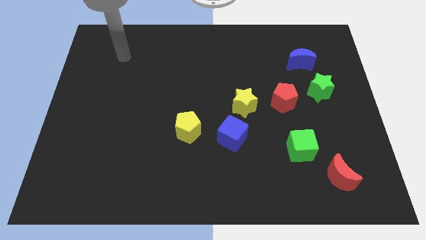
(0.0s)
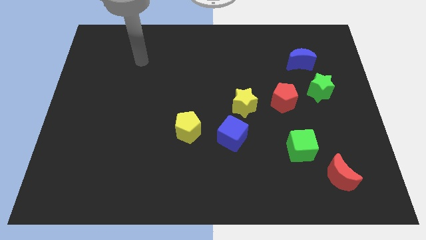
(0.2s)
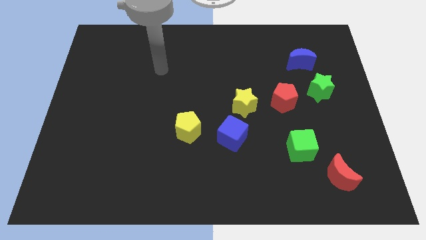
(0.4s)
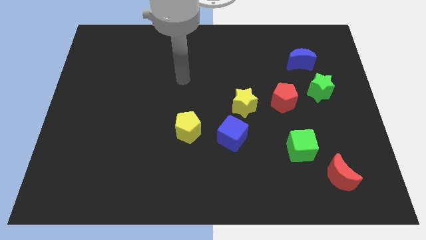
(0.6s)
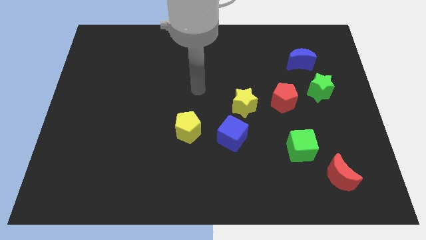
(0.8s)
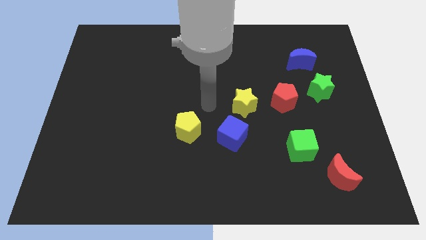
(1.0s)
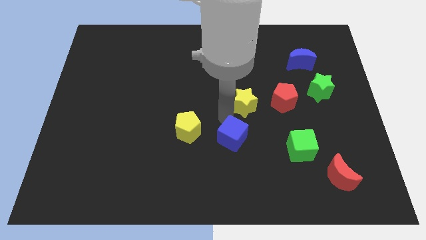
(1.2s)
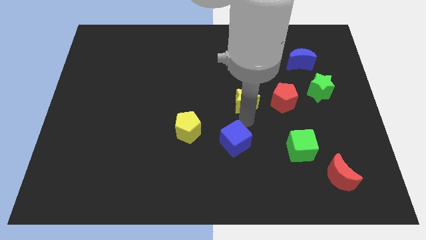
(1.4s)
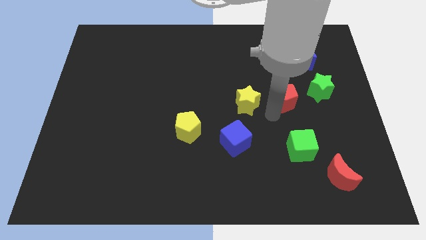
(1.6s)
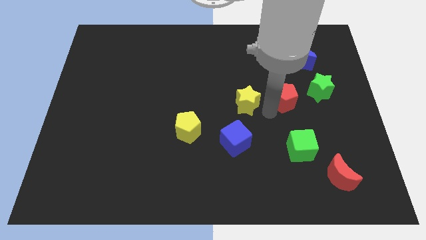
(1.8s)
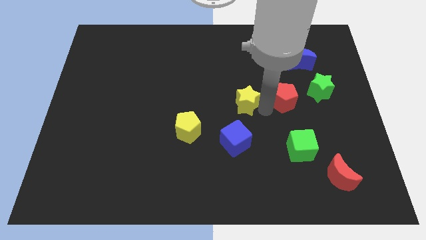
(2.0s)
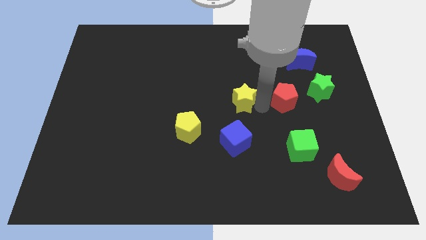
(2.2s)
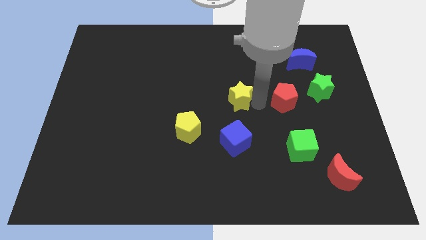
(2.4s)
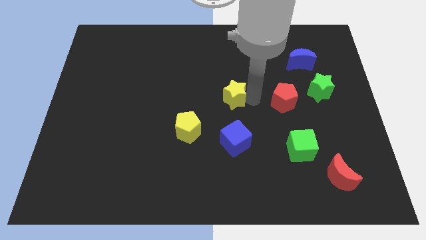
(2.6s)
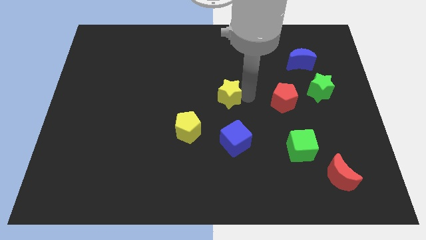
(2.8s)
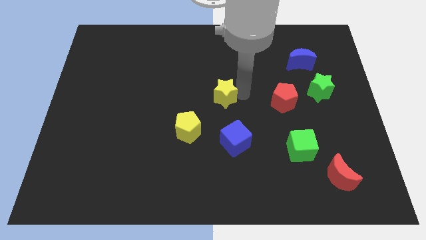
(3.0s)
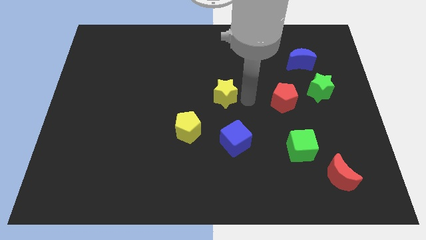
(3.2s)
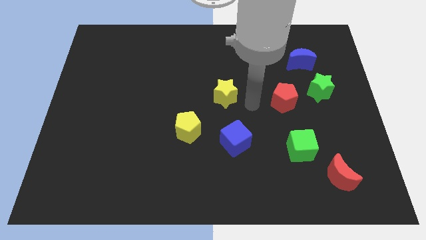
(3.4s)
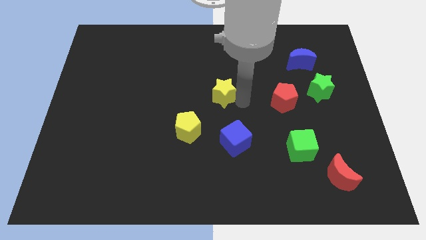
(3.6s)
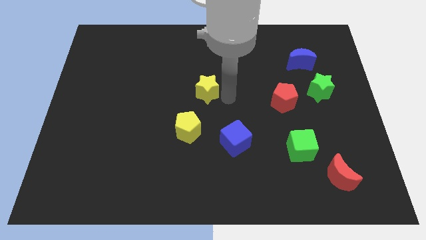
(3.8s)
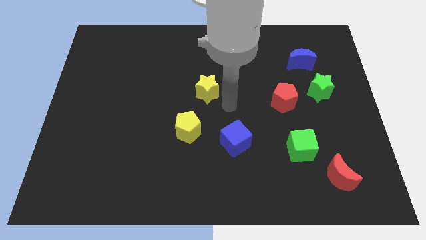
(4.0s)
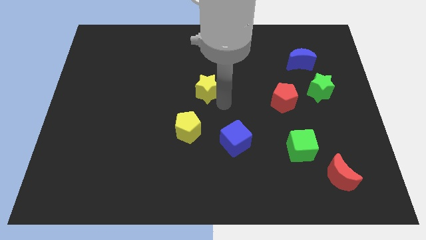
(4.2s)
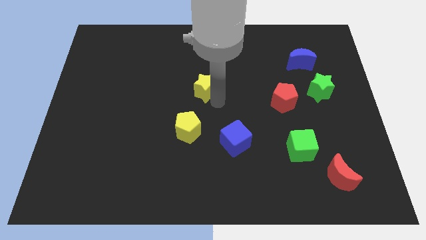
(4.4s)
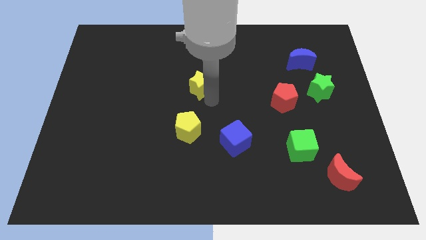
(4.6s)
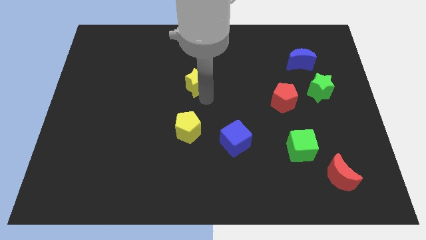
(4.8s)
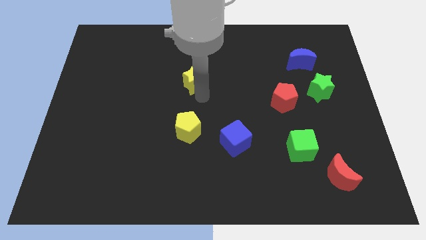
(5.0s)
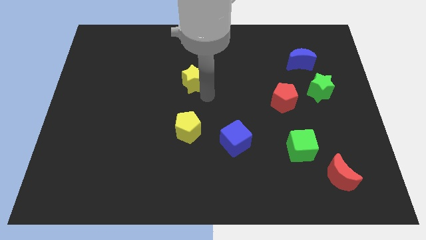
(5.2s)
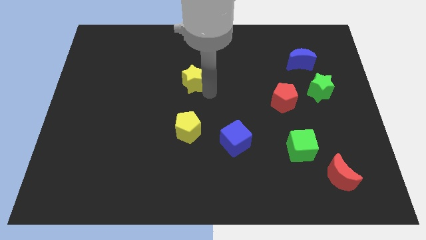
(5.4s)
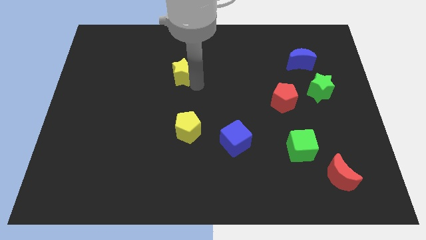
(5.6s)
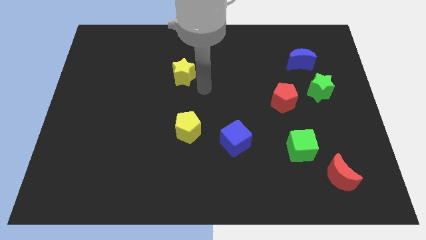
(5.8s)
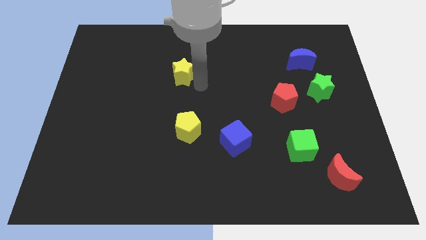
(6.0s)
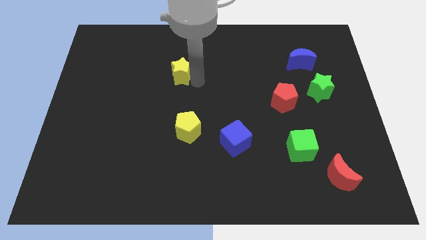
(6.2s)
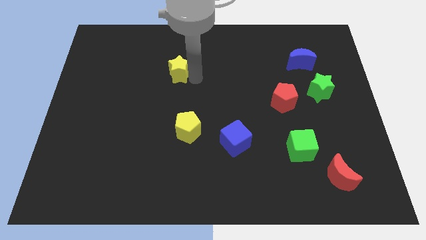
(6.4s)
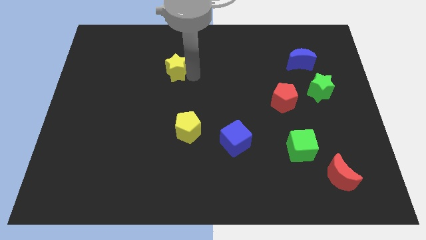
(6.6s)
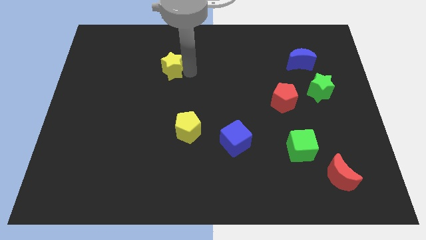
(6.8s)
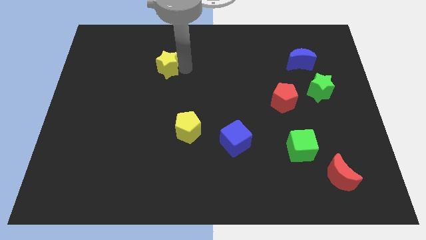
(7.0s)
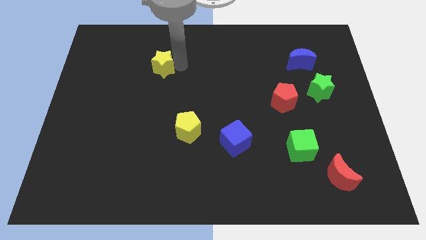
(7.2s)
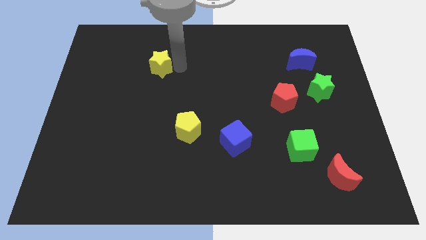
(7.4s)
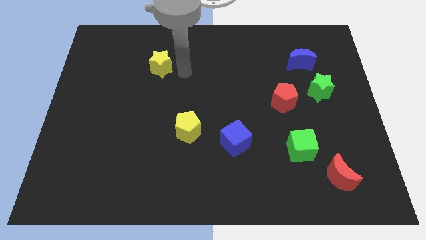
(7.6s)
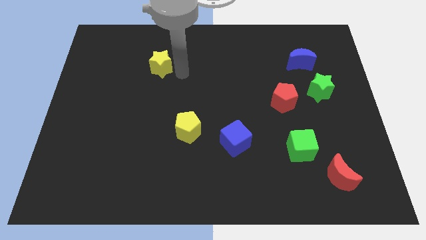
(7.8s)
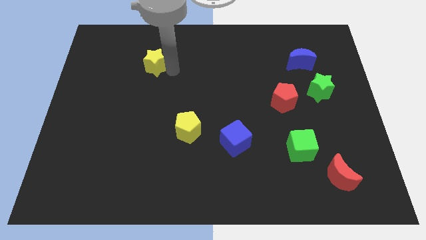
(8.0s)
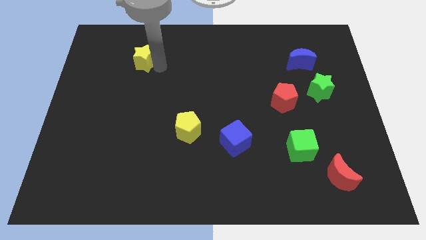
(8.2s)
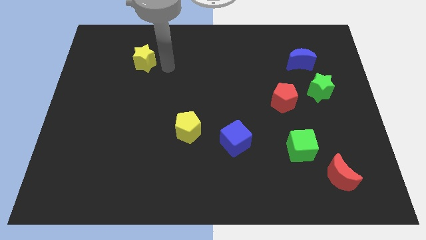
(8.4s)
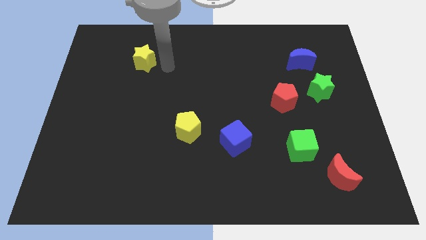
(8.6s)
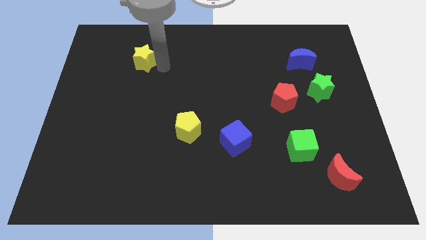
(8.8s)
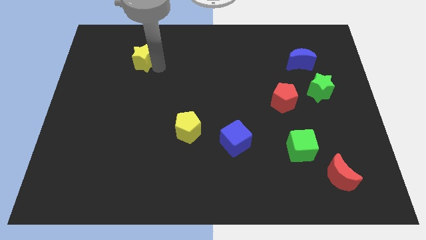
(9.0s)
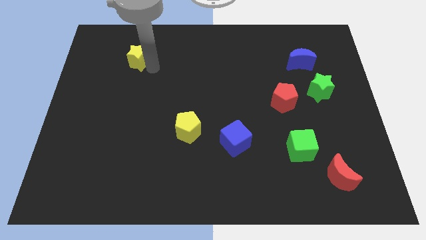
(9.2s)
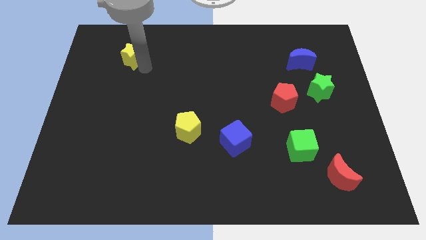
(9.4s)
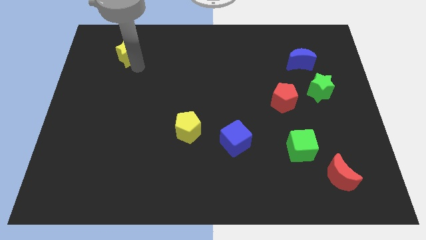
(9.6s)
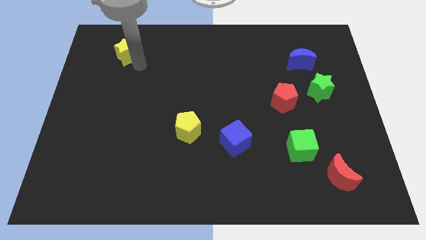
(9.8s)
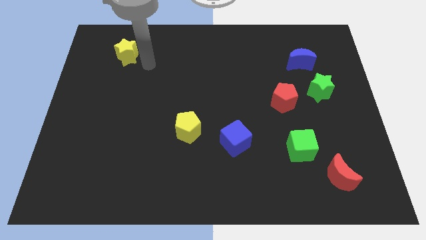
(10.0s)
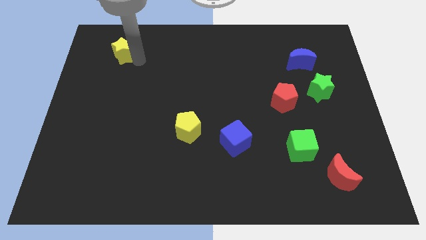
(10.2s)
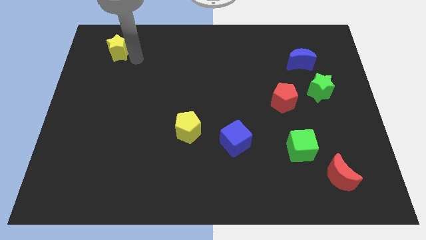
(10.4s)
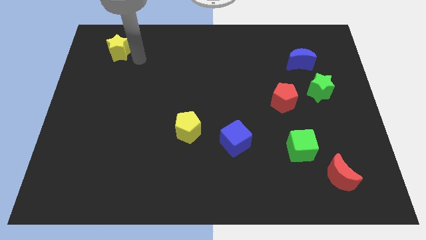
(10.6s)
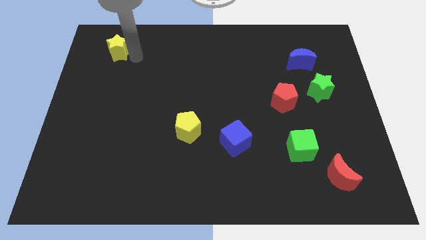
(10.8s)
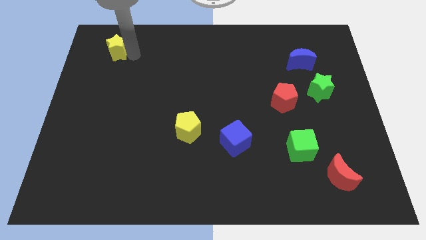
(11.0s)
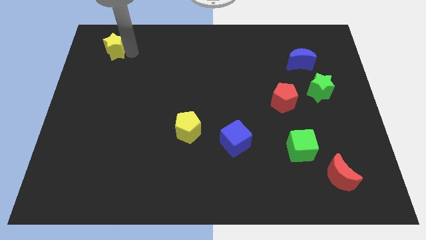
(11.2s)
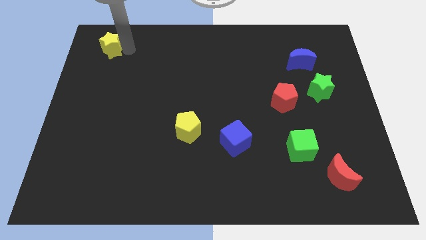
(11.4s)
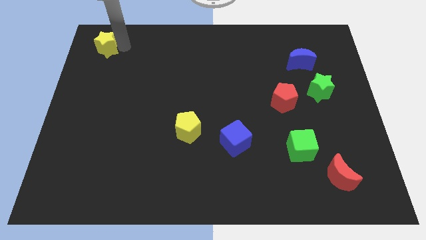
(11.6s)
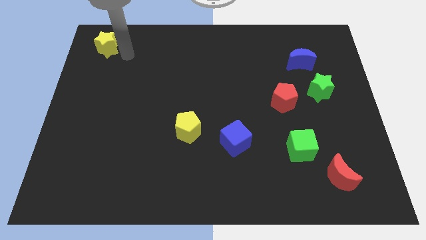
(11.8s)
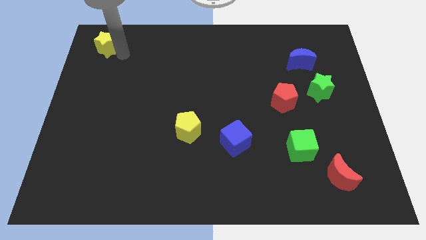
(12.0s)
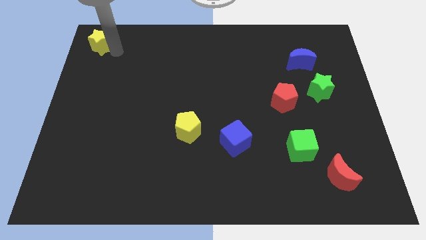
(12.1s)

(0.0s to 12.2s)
push the yellow star to the top left corner
